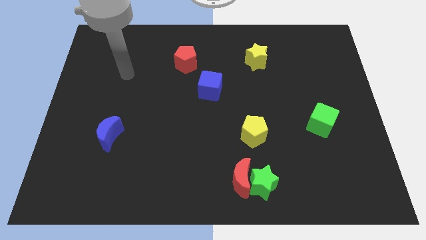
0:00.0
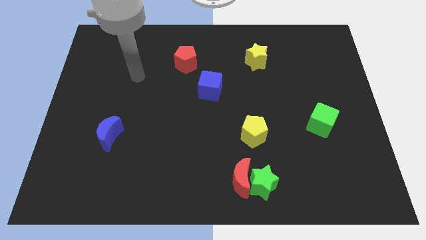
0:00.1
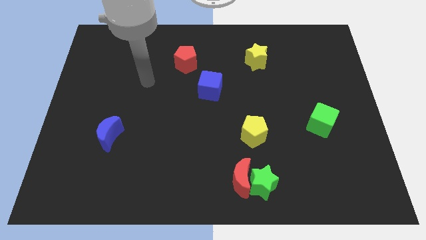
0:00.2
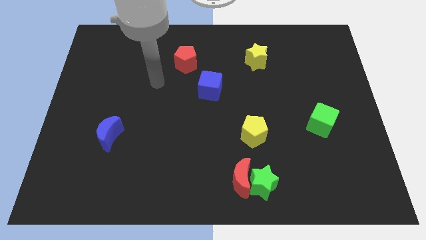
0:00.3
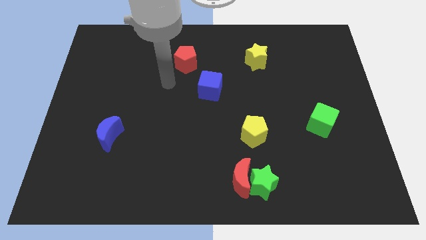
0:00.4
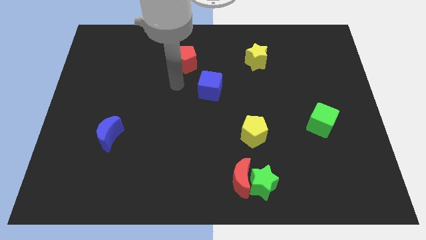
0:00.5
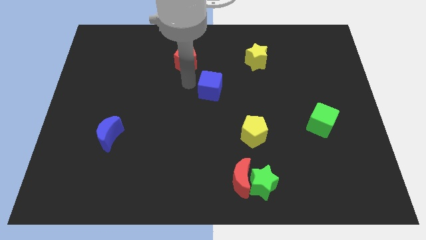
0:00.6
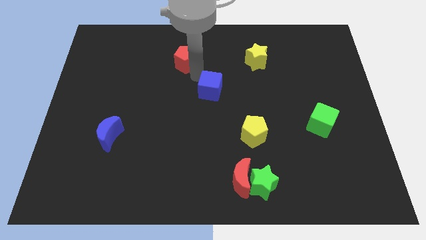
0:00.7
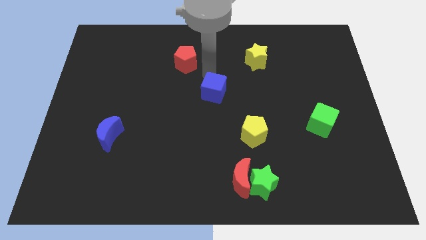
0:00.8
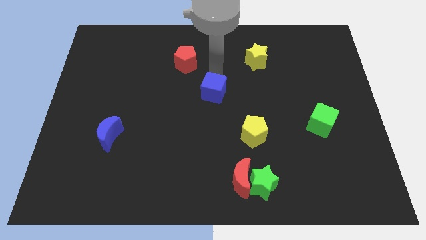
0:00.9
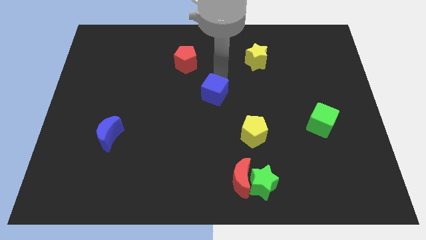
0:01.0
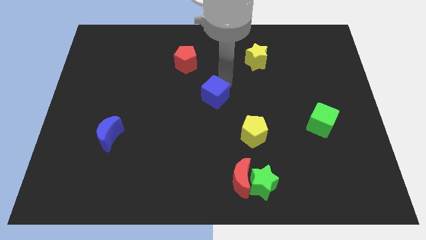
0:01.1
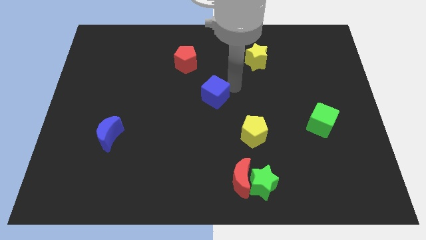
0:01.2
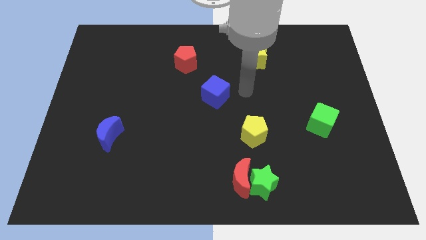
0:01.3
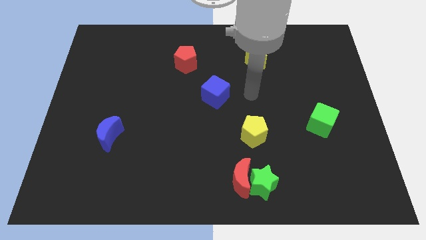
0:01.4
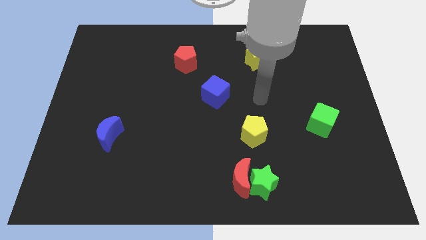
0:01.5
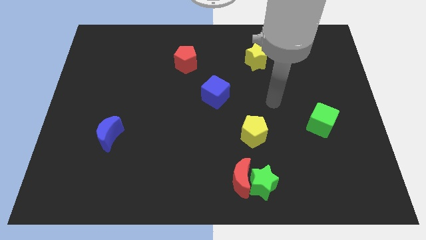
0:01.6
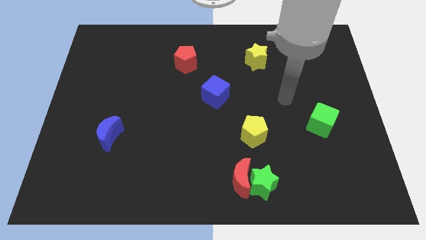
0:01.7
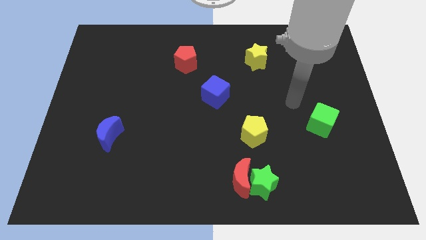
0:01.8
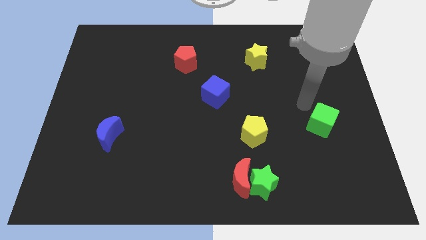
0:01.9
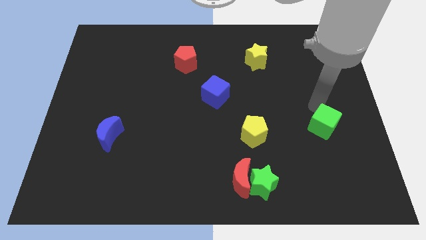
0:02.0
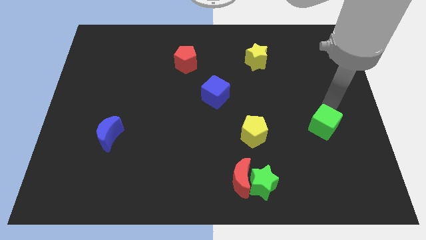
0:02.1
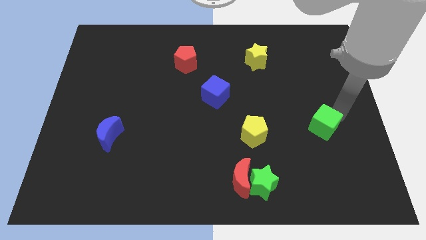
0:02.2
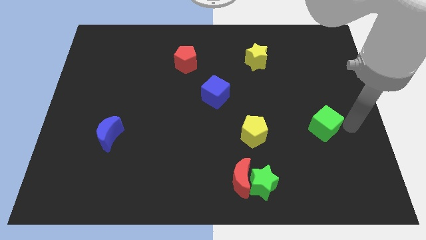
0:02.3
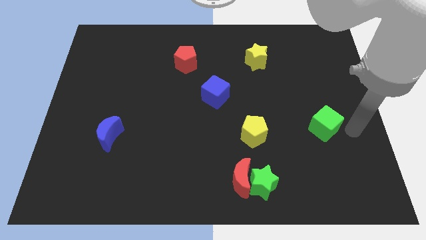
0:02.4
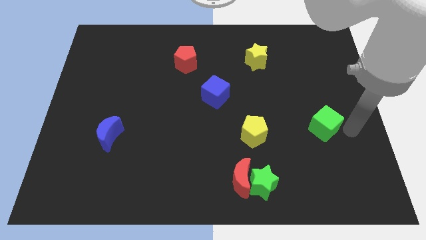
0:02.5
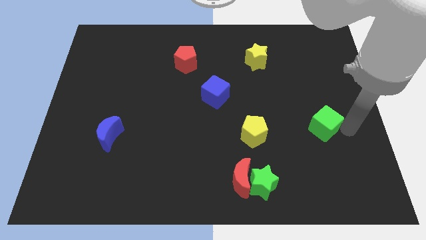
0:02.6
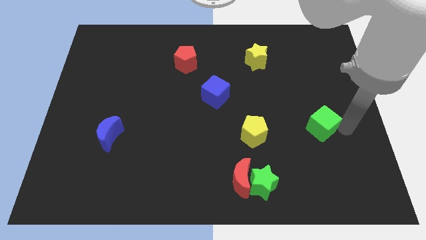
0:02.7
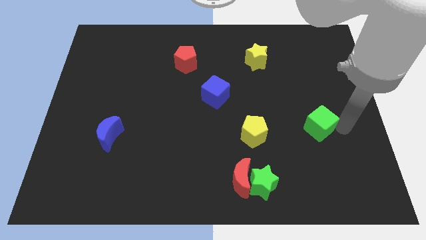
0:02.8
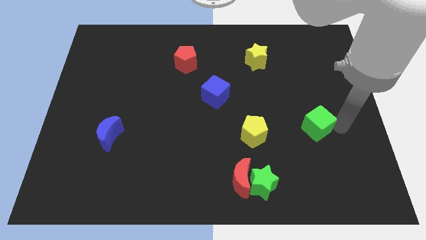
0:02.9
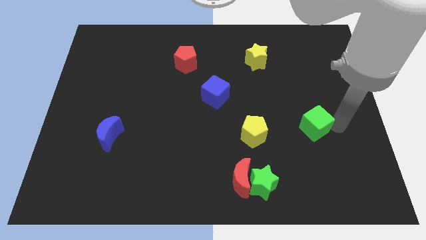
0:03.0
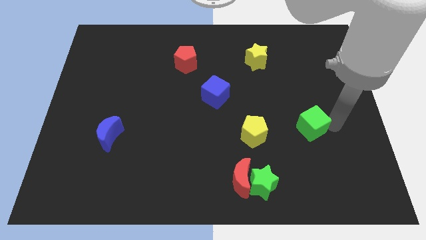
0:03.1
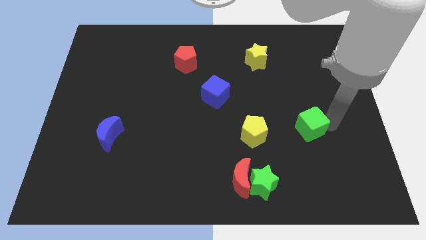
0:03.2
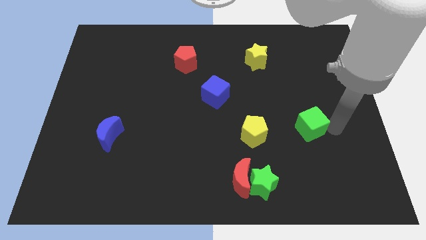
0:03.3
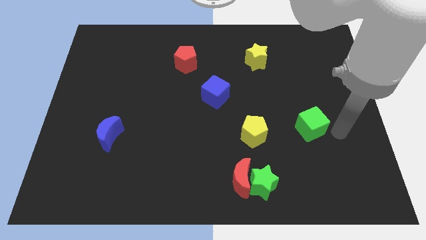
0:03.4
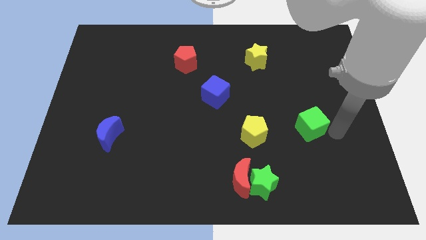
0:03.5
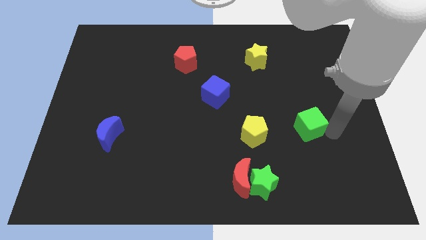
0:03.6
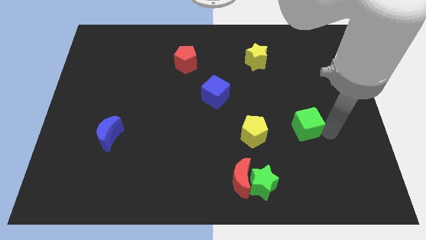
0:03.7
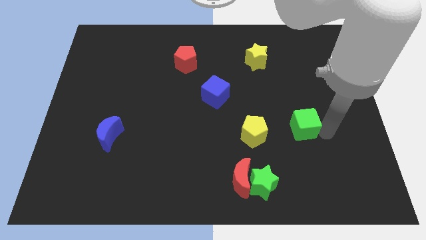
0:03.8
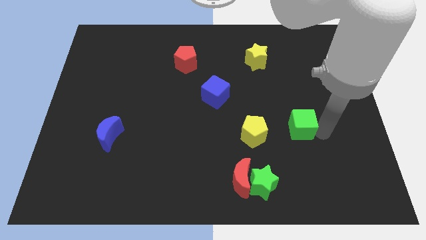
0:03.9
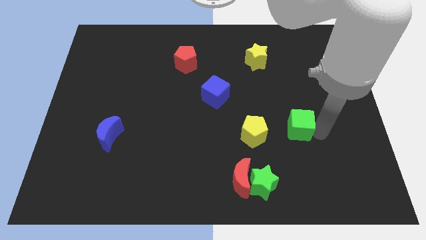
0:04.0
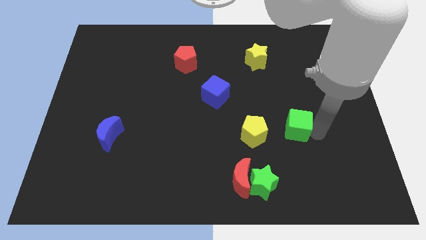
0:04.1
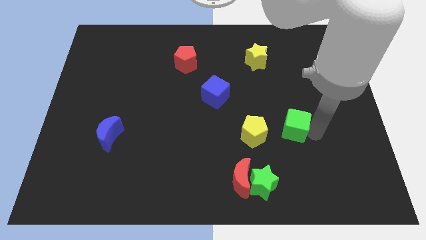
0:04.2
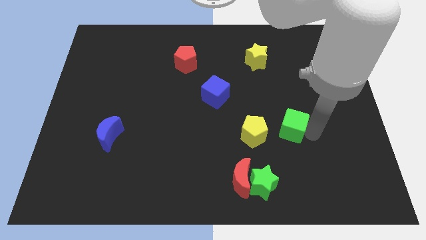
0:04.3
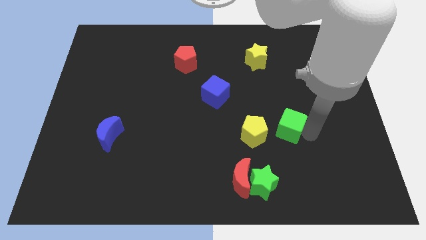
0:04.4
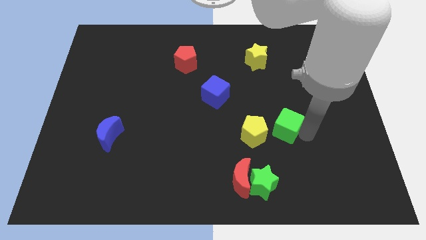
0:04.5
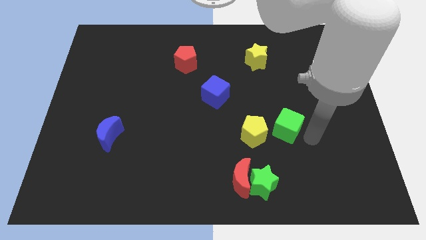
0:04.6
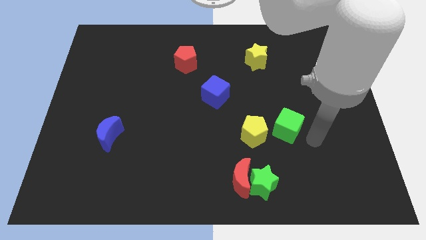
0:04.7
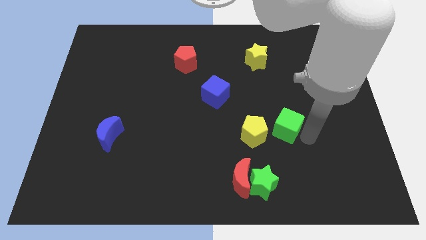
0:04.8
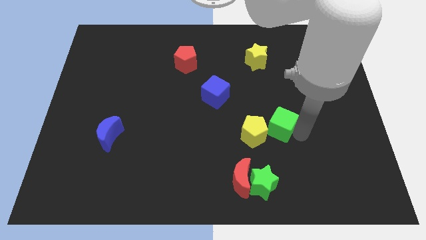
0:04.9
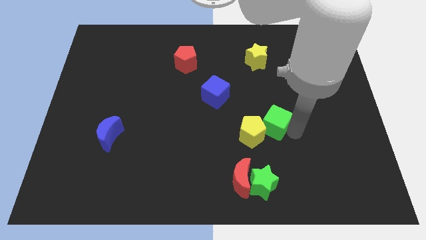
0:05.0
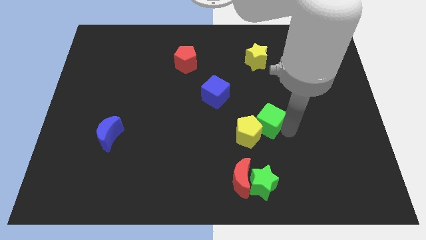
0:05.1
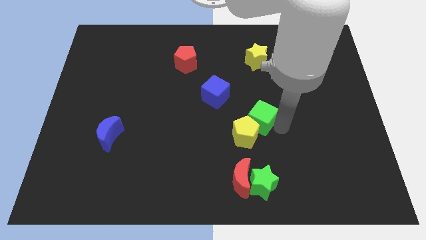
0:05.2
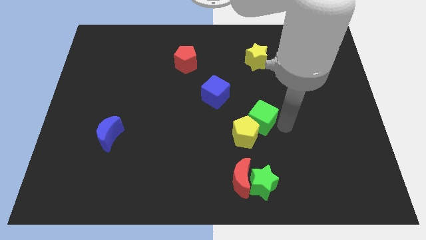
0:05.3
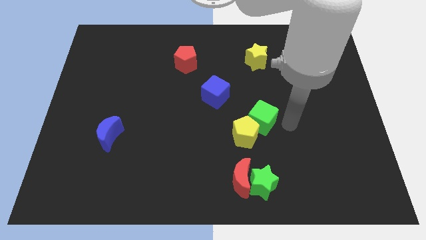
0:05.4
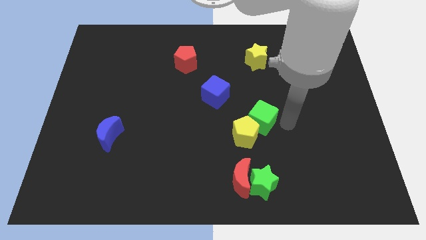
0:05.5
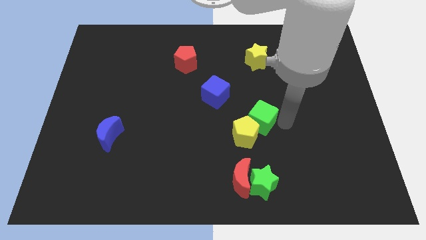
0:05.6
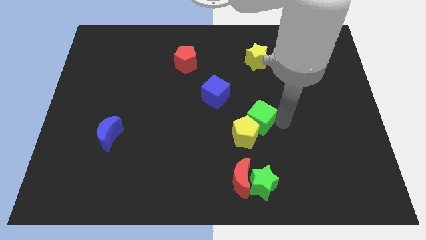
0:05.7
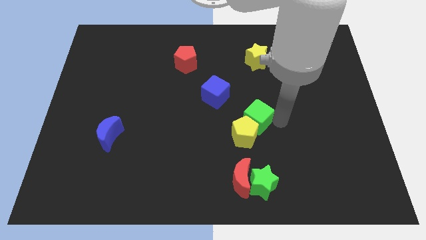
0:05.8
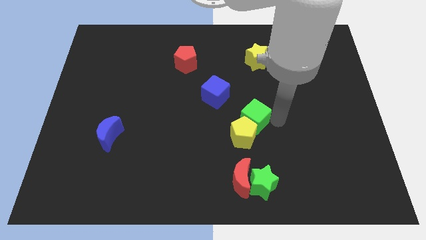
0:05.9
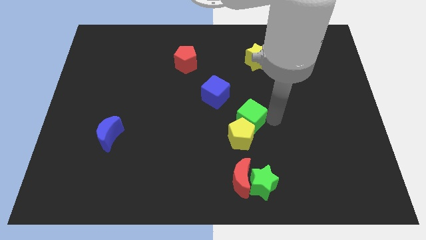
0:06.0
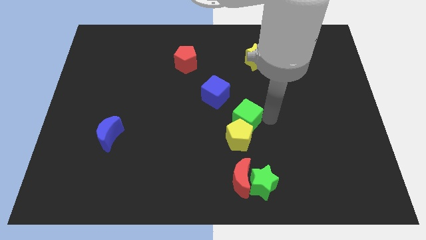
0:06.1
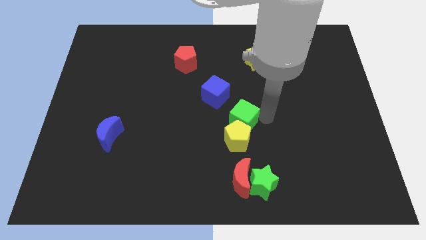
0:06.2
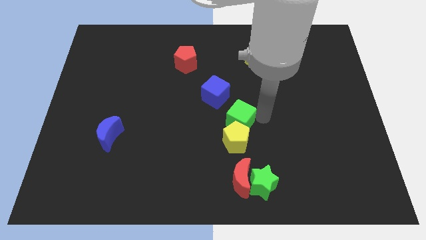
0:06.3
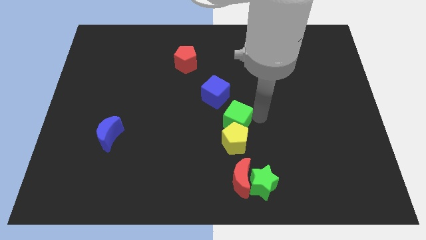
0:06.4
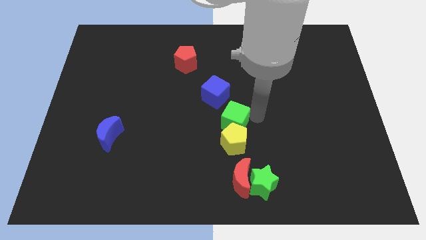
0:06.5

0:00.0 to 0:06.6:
move the green cube to the left

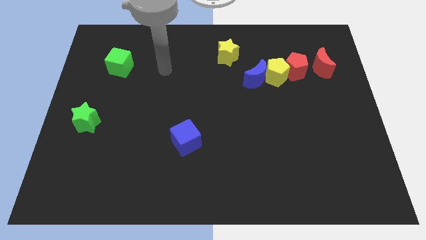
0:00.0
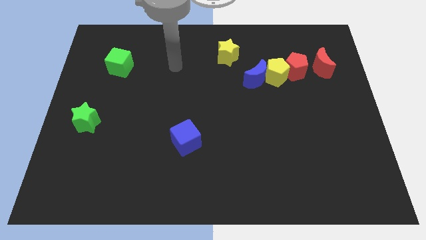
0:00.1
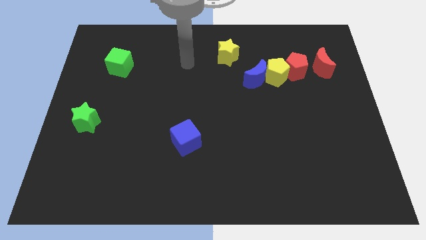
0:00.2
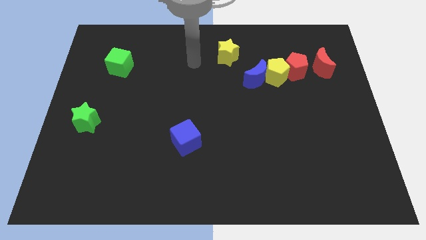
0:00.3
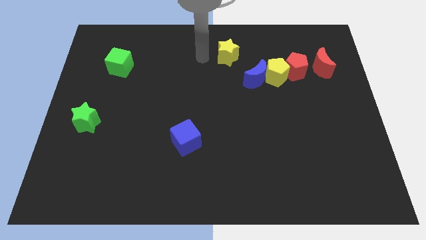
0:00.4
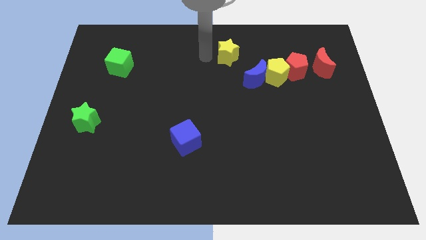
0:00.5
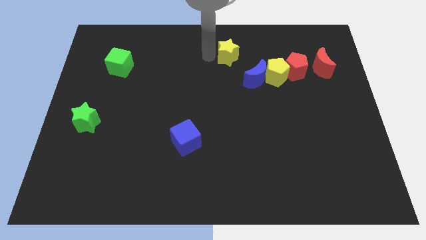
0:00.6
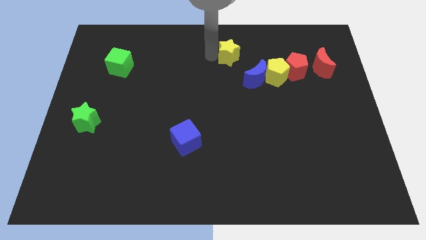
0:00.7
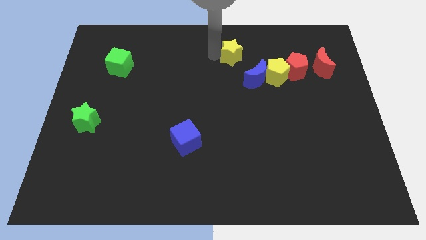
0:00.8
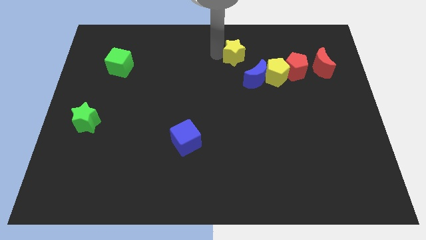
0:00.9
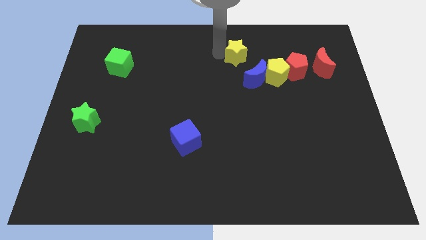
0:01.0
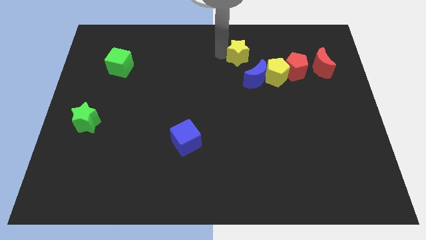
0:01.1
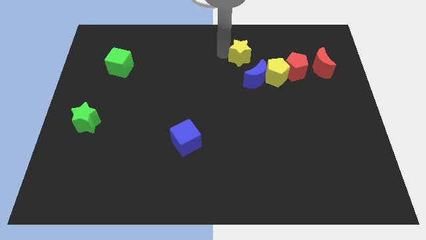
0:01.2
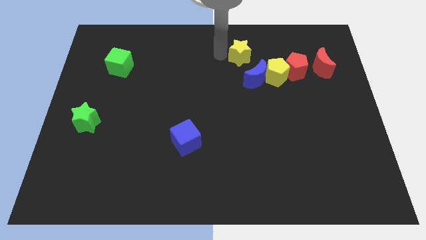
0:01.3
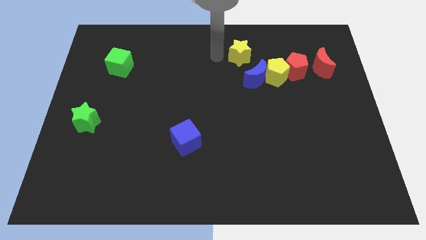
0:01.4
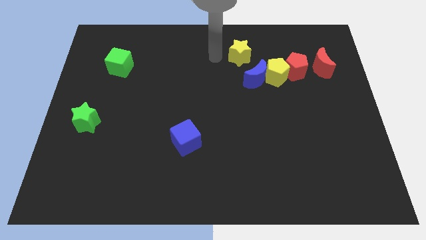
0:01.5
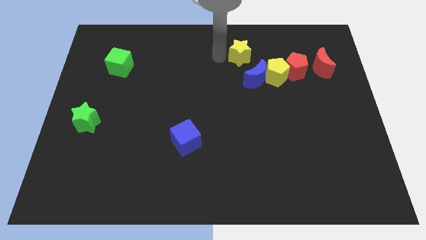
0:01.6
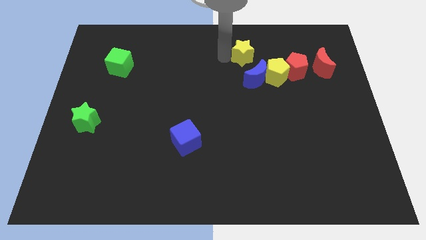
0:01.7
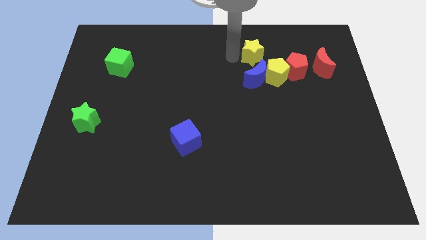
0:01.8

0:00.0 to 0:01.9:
slightly push the yellow star to the right

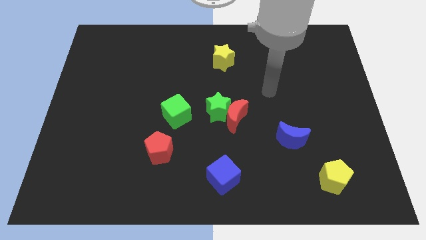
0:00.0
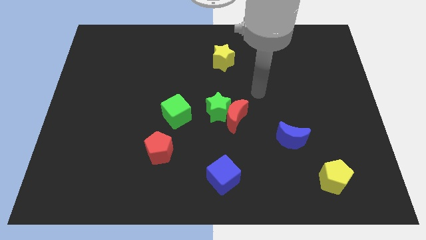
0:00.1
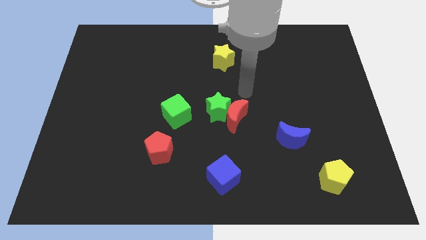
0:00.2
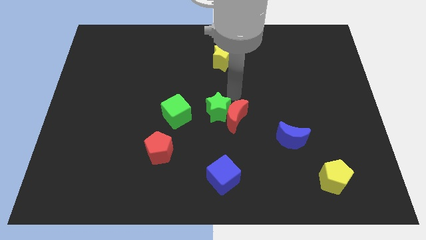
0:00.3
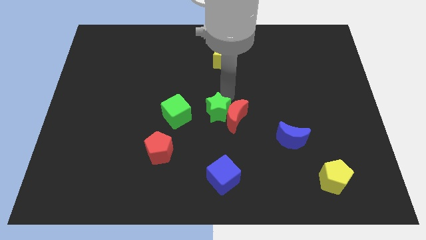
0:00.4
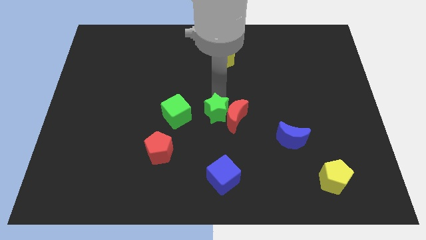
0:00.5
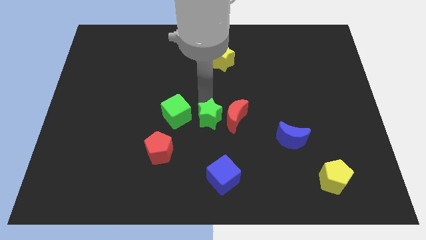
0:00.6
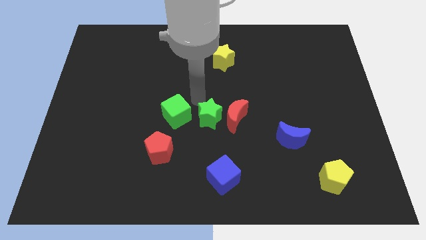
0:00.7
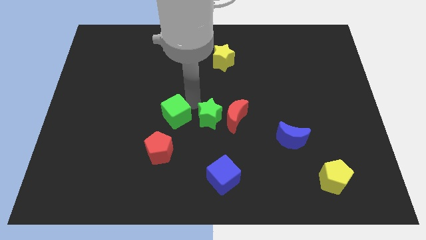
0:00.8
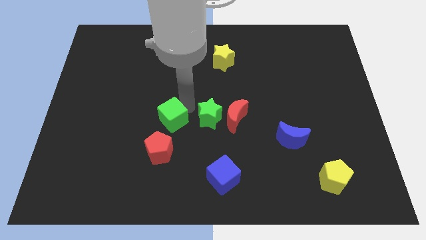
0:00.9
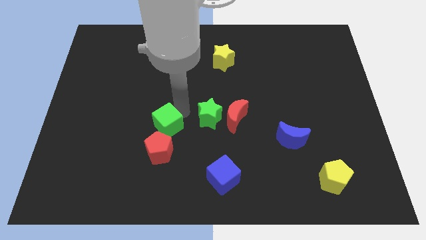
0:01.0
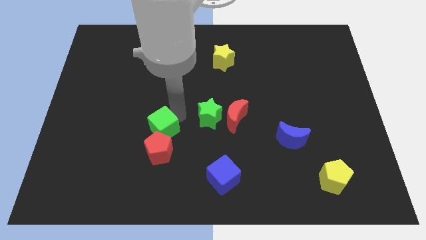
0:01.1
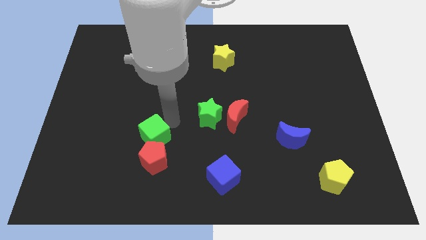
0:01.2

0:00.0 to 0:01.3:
move the green cube a bit down and then to the left
